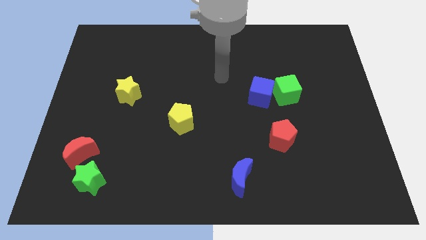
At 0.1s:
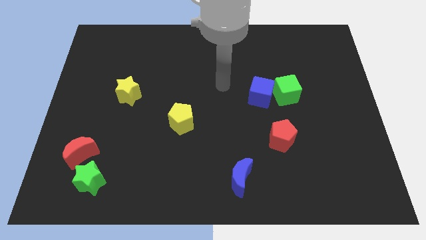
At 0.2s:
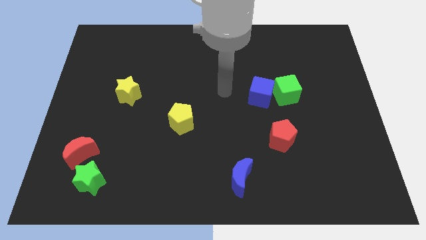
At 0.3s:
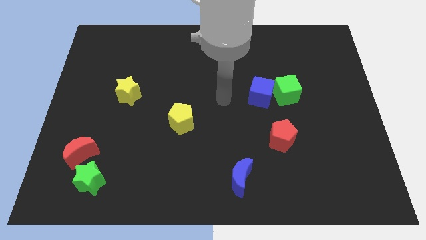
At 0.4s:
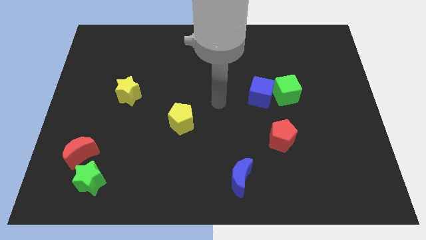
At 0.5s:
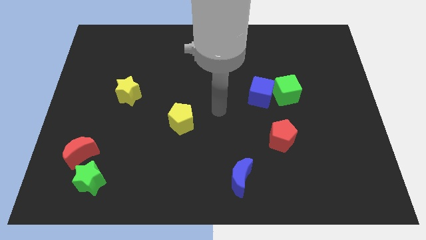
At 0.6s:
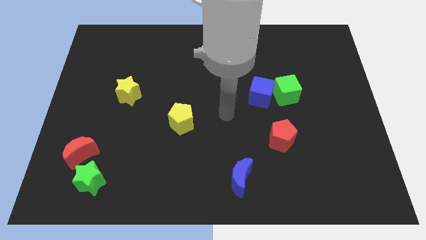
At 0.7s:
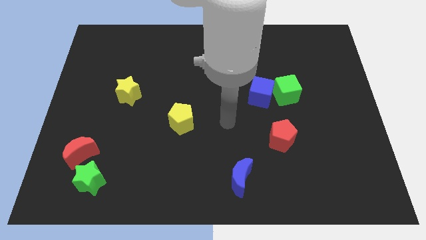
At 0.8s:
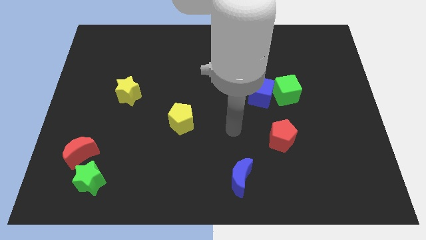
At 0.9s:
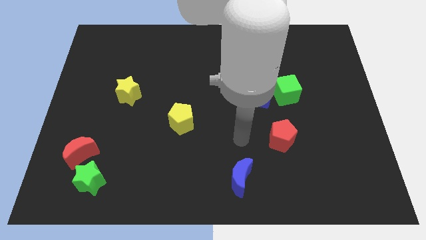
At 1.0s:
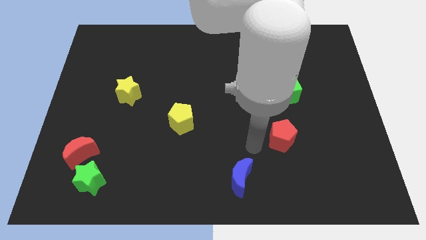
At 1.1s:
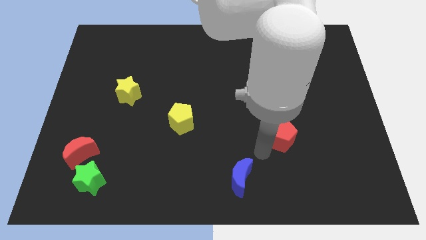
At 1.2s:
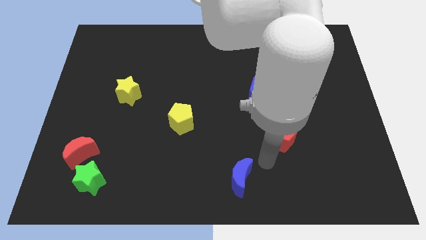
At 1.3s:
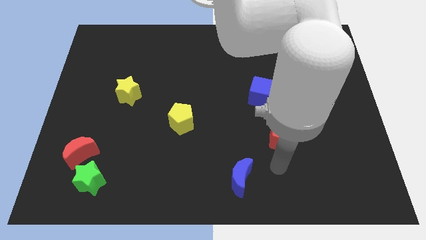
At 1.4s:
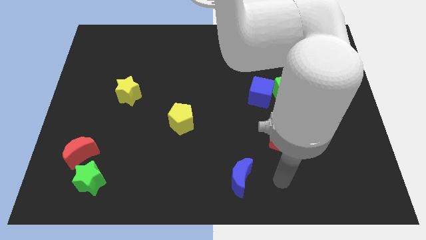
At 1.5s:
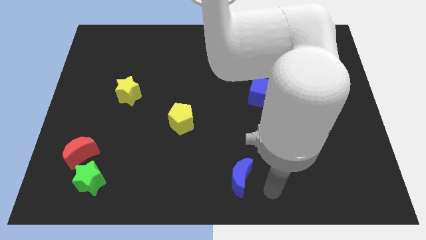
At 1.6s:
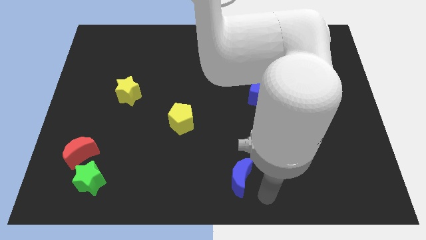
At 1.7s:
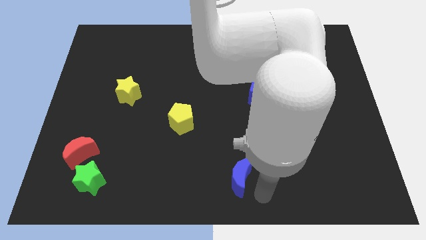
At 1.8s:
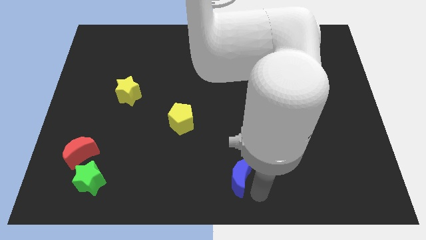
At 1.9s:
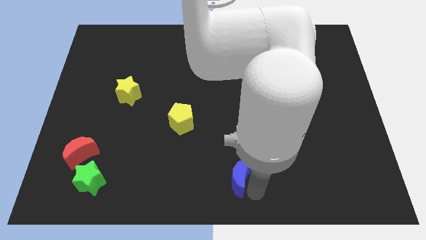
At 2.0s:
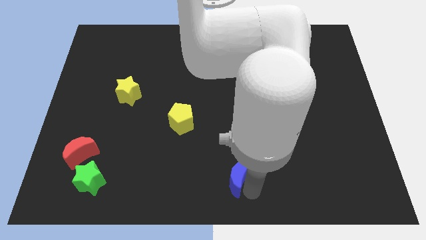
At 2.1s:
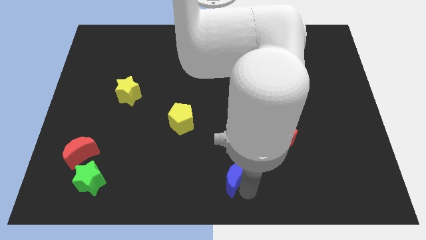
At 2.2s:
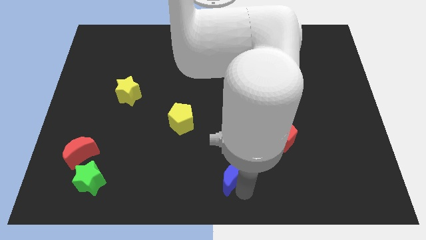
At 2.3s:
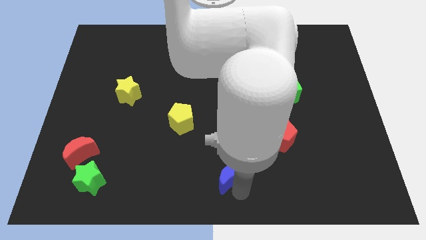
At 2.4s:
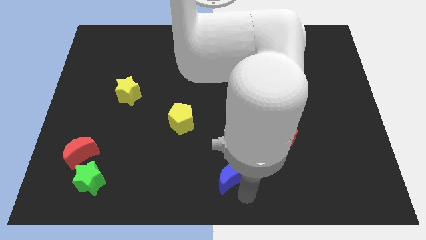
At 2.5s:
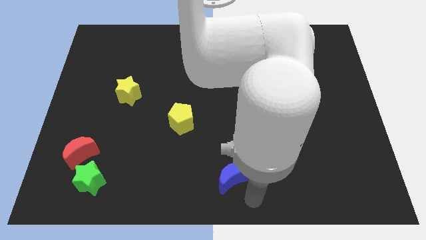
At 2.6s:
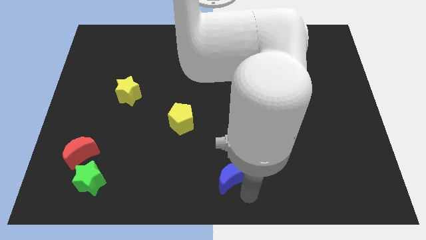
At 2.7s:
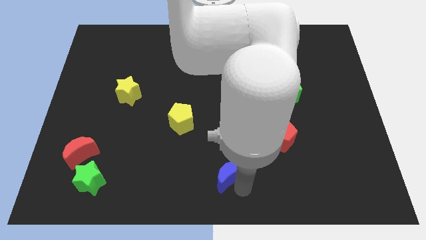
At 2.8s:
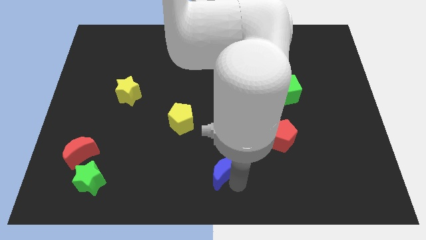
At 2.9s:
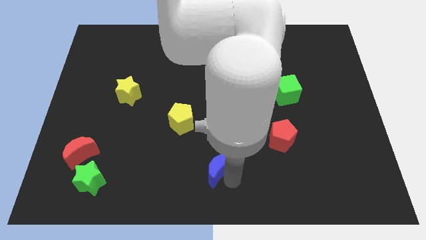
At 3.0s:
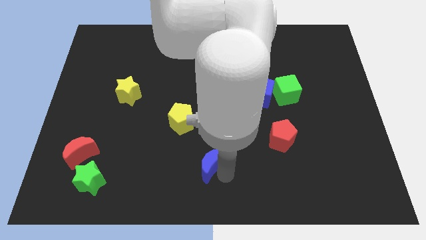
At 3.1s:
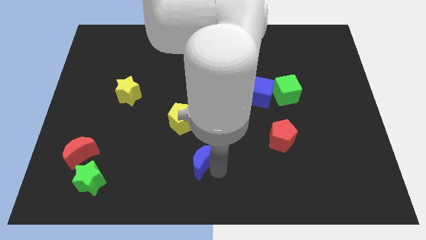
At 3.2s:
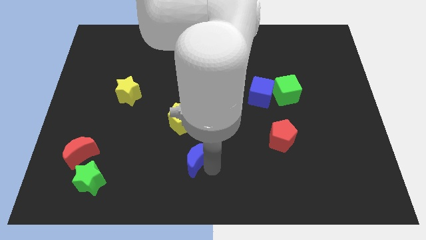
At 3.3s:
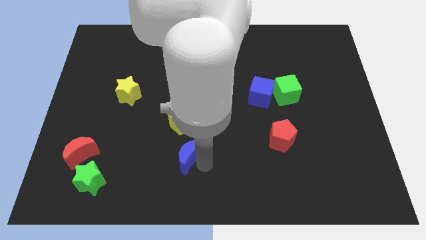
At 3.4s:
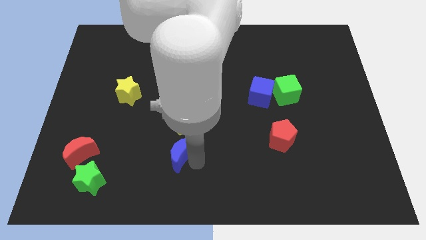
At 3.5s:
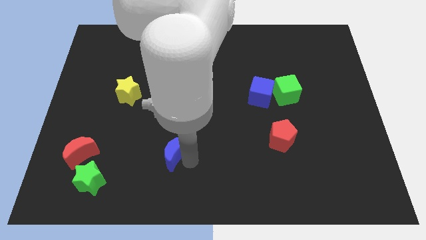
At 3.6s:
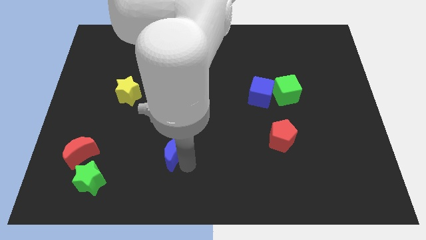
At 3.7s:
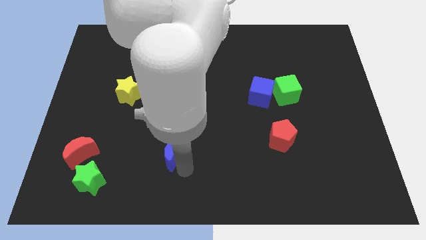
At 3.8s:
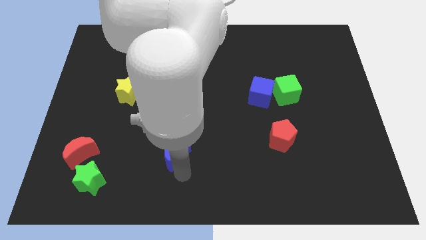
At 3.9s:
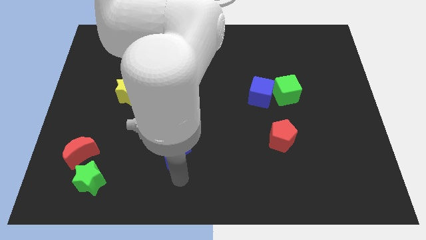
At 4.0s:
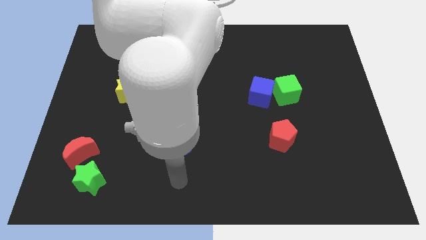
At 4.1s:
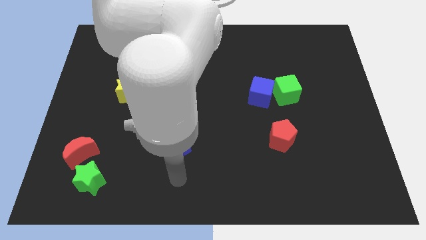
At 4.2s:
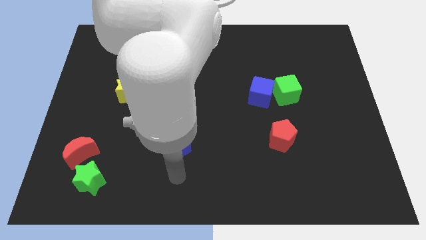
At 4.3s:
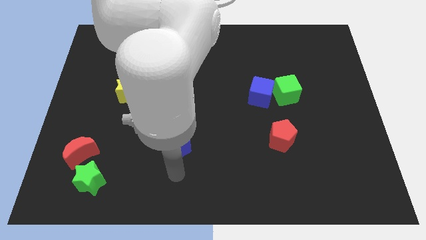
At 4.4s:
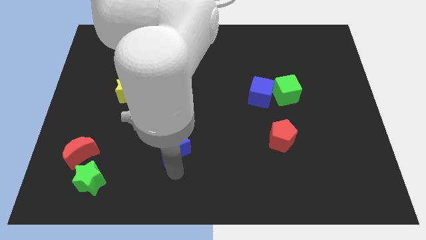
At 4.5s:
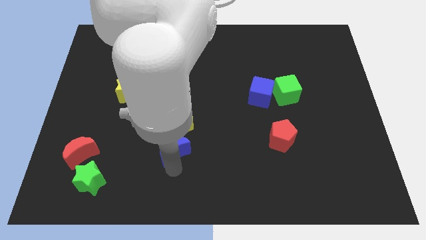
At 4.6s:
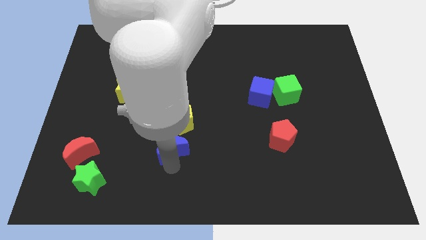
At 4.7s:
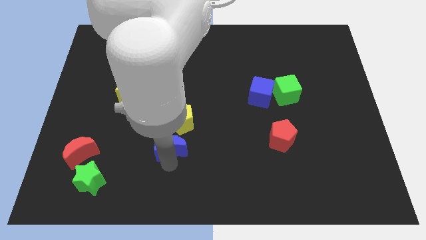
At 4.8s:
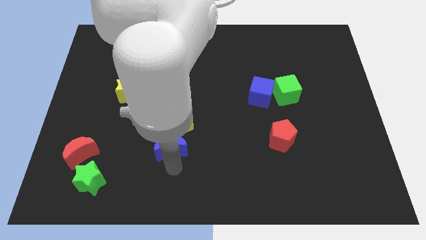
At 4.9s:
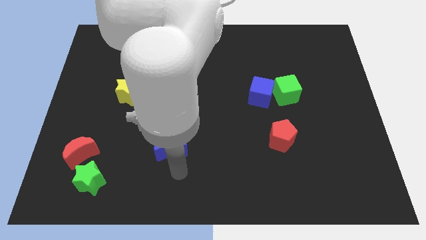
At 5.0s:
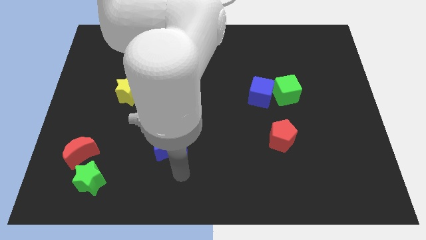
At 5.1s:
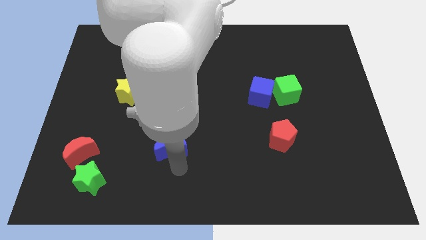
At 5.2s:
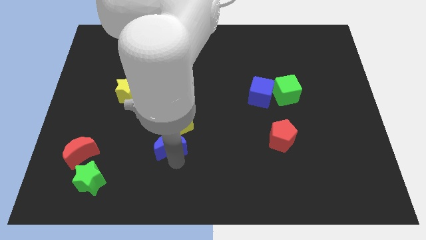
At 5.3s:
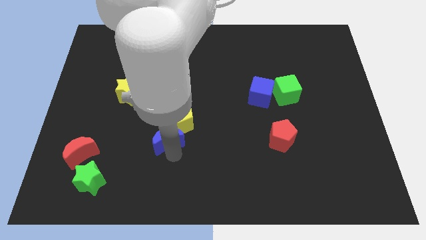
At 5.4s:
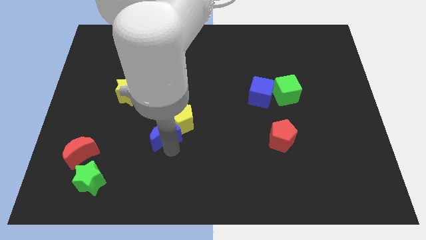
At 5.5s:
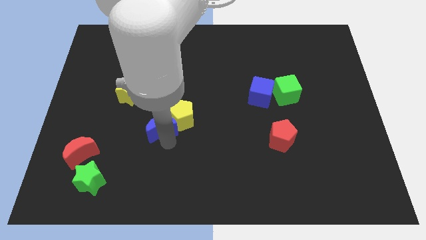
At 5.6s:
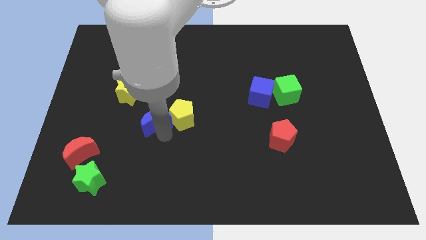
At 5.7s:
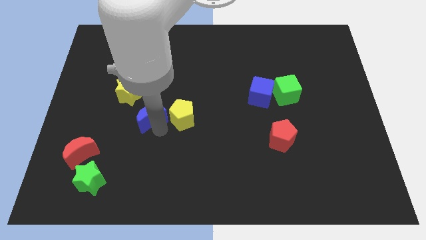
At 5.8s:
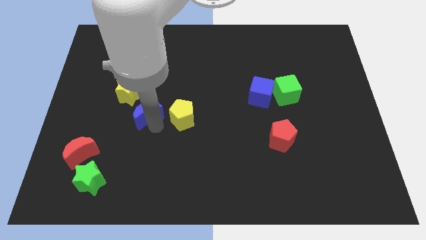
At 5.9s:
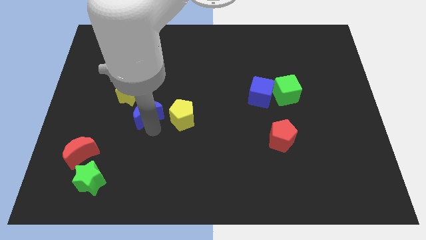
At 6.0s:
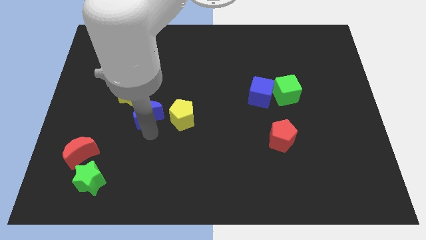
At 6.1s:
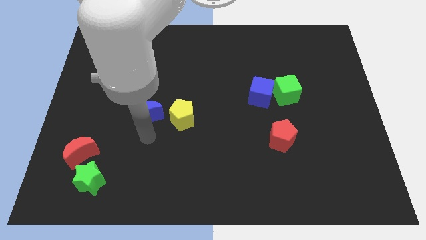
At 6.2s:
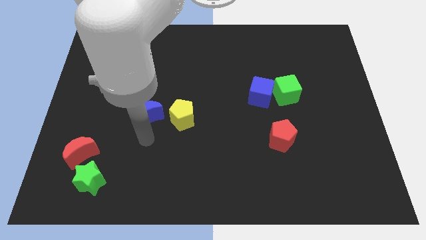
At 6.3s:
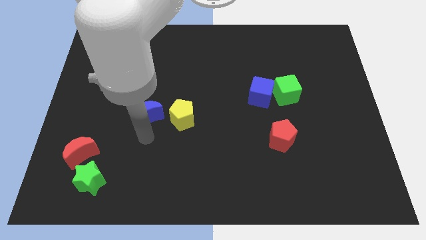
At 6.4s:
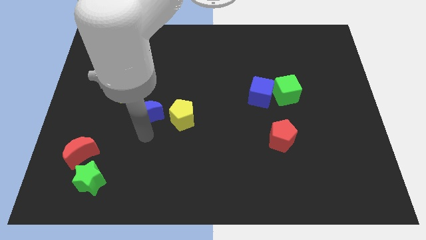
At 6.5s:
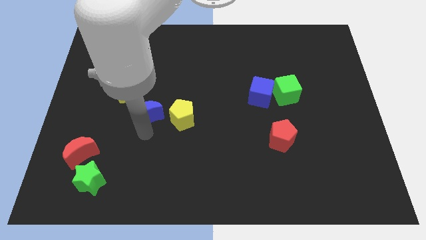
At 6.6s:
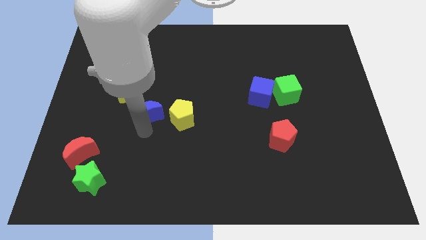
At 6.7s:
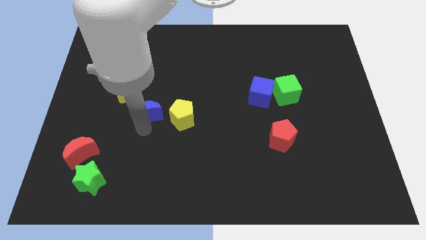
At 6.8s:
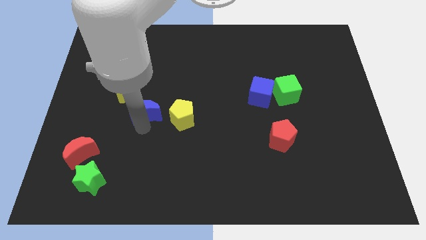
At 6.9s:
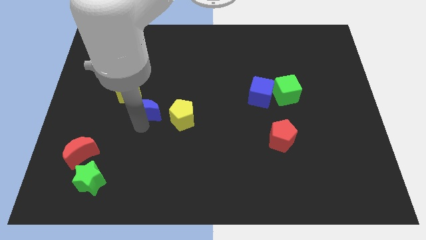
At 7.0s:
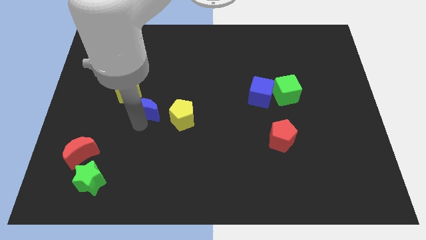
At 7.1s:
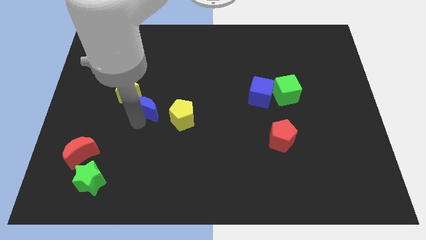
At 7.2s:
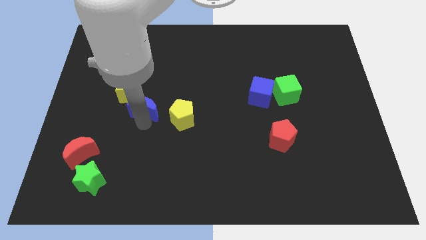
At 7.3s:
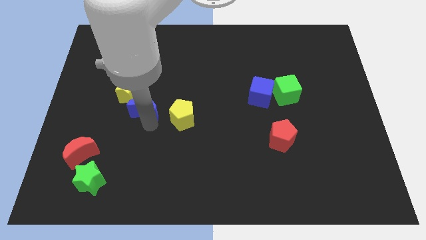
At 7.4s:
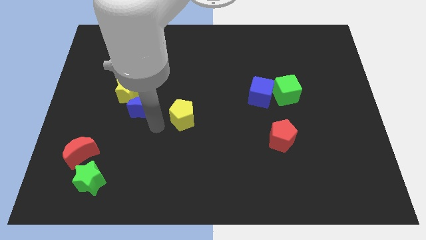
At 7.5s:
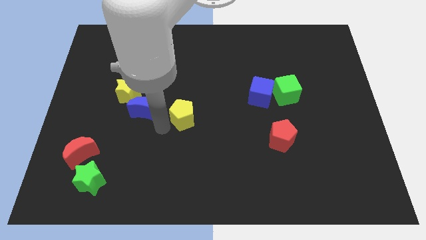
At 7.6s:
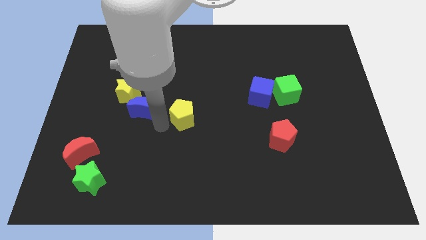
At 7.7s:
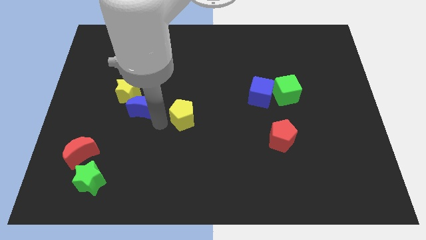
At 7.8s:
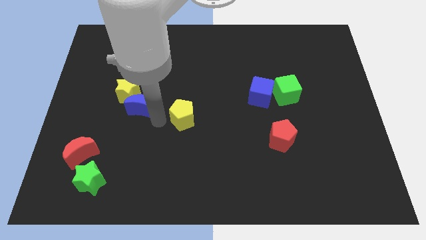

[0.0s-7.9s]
push the blue moon to the yellow star
